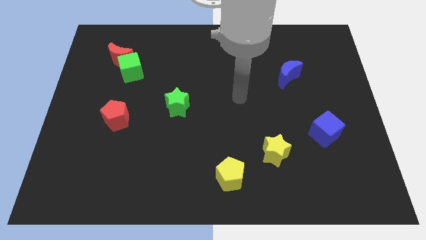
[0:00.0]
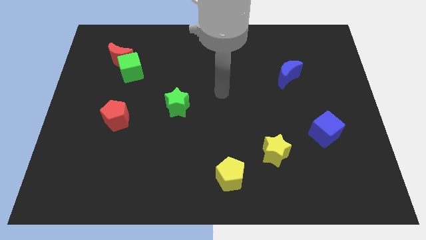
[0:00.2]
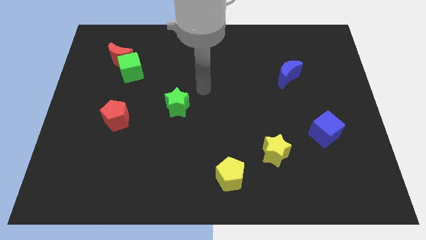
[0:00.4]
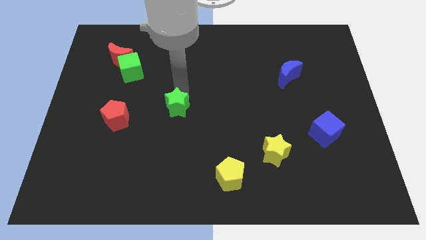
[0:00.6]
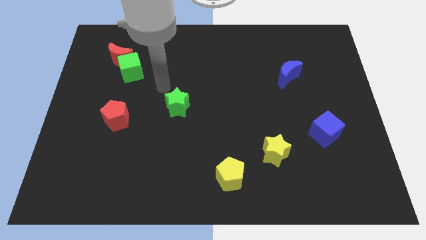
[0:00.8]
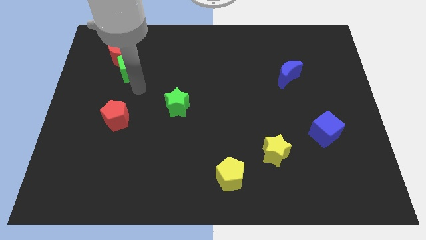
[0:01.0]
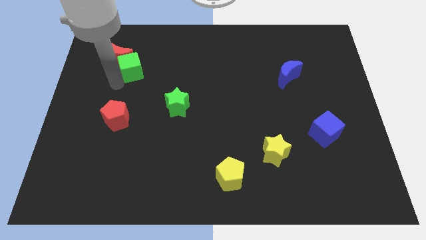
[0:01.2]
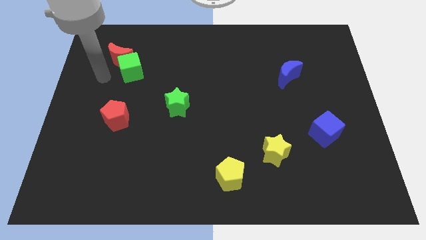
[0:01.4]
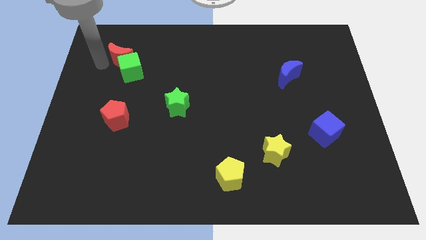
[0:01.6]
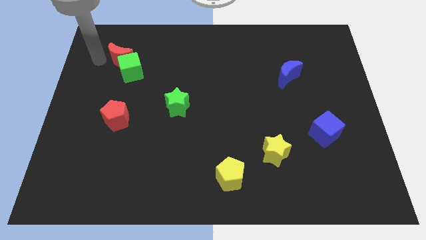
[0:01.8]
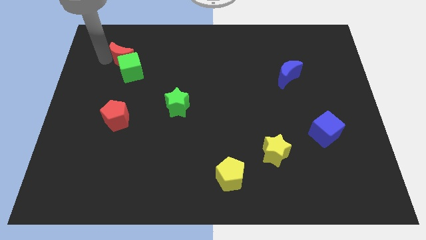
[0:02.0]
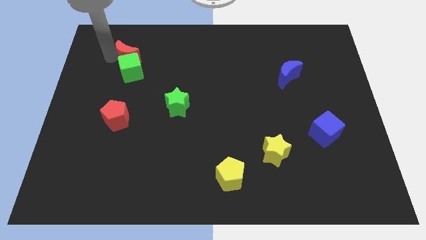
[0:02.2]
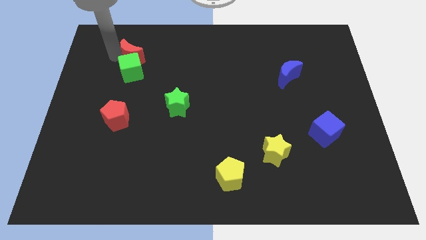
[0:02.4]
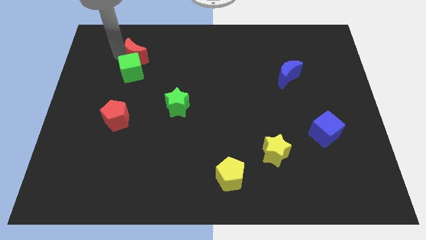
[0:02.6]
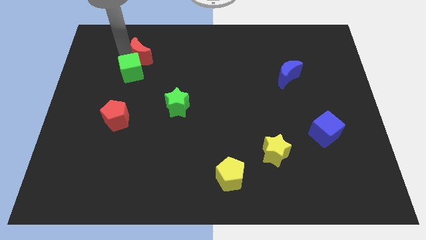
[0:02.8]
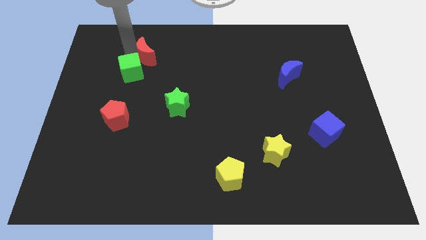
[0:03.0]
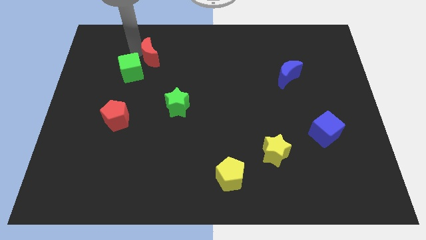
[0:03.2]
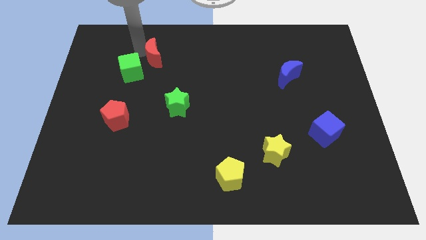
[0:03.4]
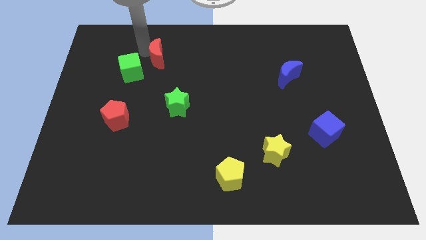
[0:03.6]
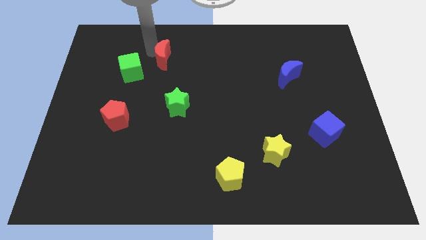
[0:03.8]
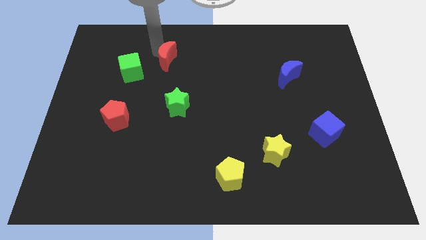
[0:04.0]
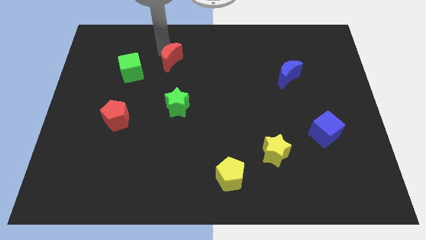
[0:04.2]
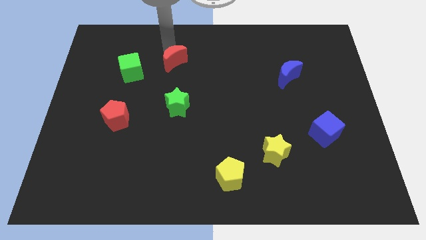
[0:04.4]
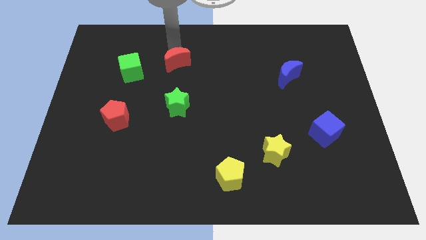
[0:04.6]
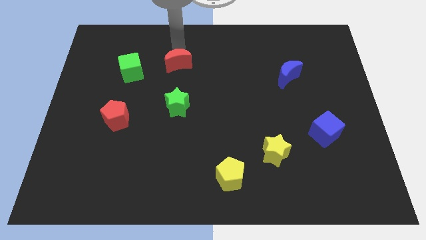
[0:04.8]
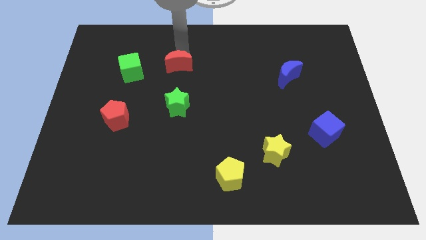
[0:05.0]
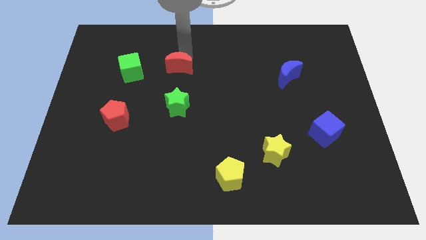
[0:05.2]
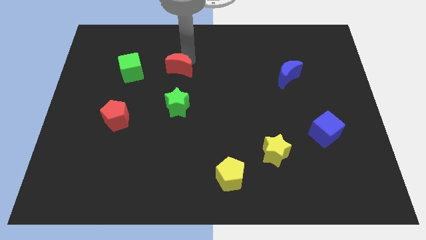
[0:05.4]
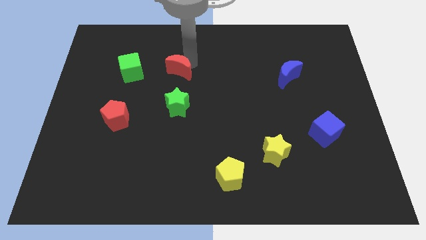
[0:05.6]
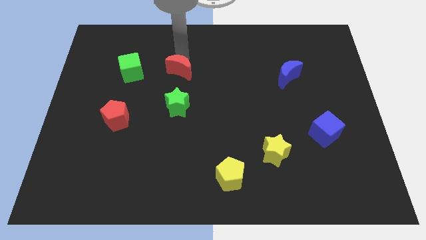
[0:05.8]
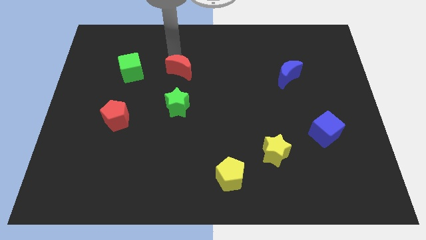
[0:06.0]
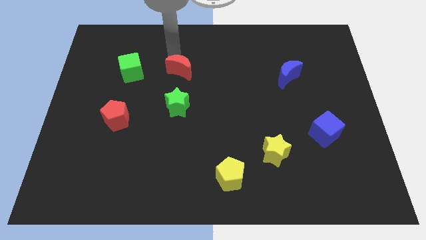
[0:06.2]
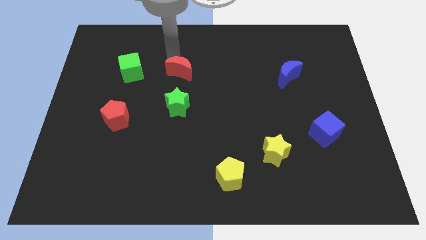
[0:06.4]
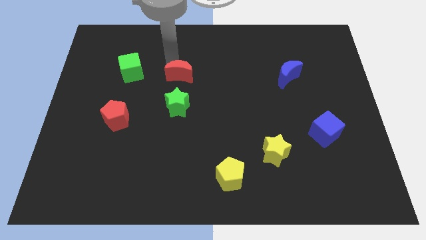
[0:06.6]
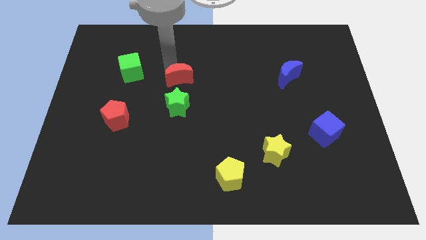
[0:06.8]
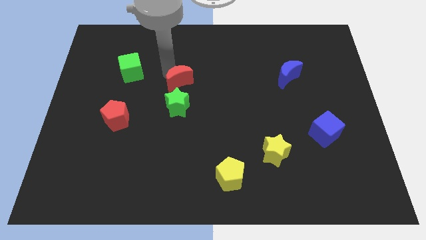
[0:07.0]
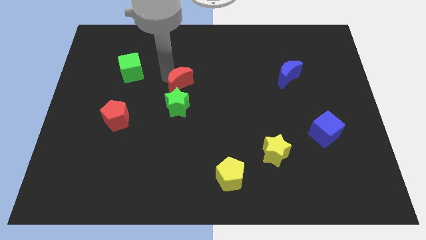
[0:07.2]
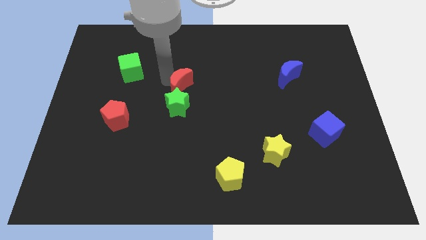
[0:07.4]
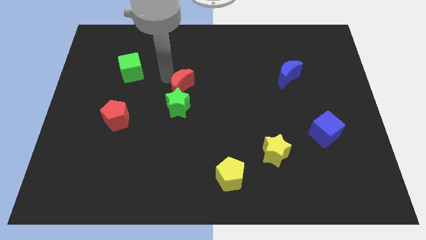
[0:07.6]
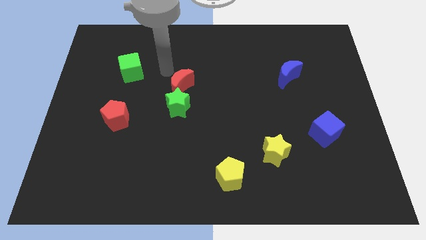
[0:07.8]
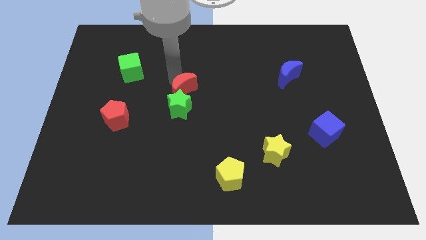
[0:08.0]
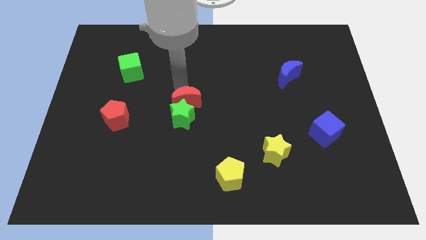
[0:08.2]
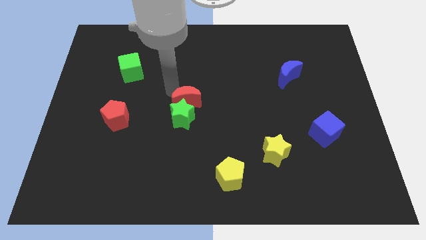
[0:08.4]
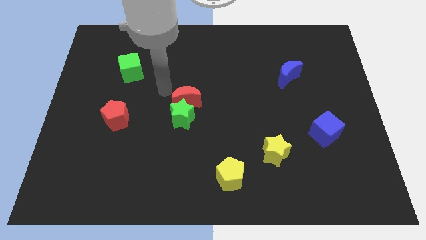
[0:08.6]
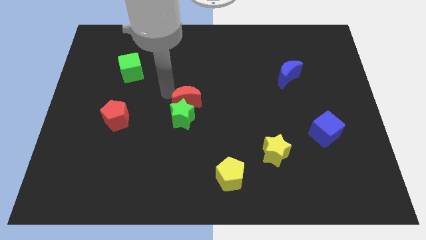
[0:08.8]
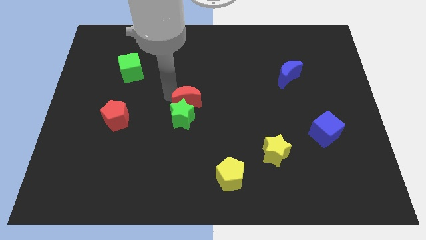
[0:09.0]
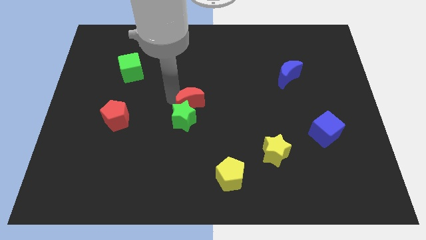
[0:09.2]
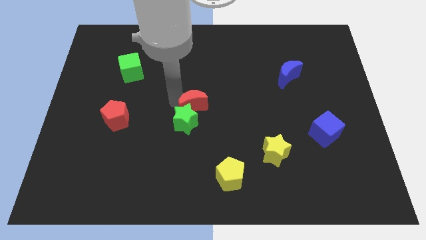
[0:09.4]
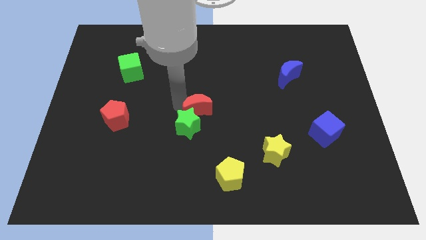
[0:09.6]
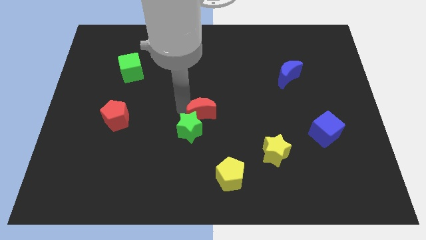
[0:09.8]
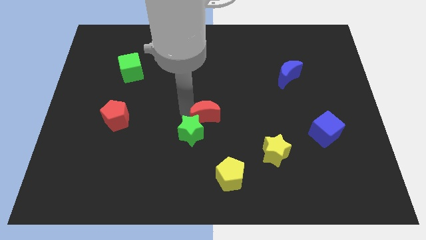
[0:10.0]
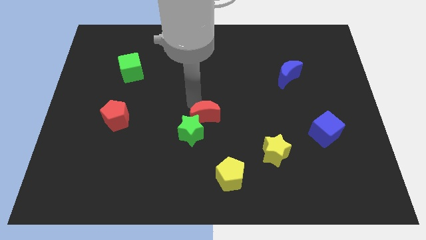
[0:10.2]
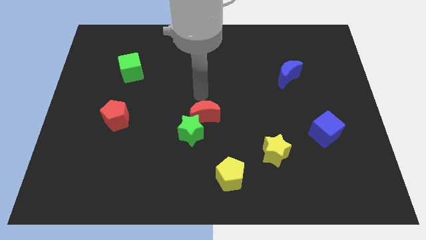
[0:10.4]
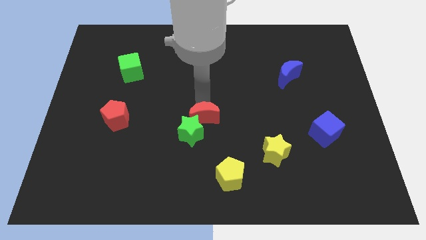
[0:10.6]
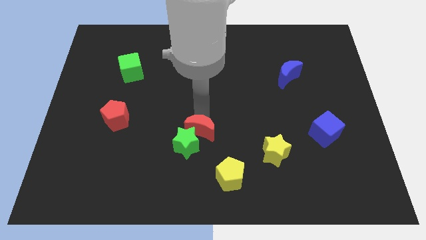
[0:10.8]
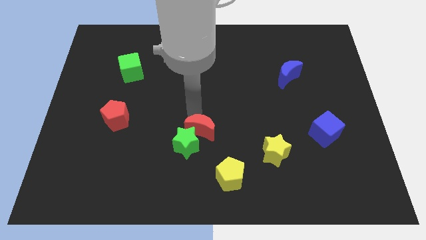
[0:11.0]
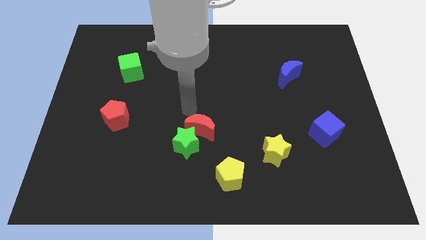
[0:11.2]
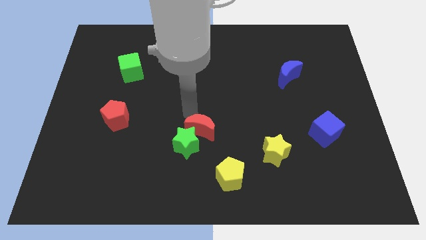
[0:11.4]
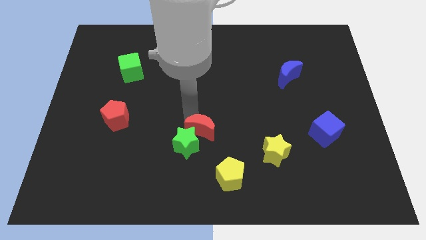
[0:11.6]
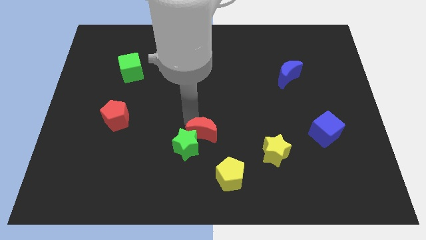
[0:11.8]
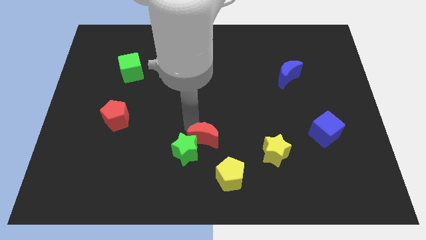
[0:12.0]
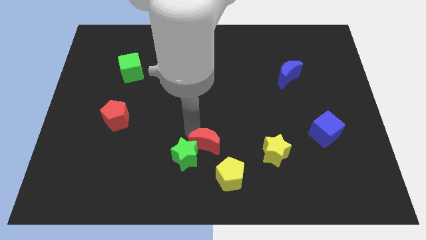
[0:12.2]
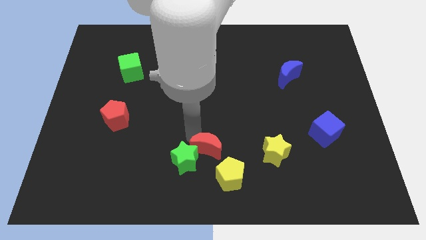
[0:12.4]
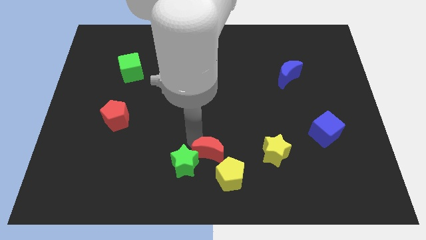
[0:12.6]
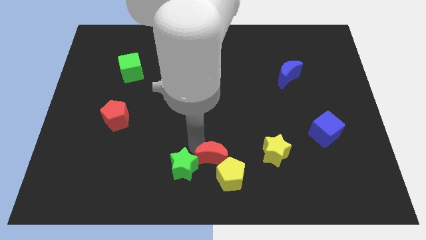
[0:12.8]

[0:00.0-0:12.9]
move the red moon next to the yellow pentagon

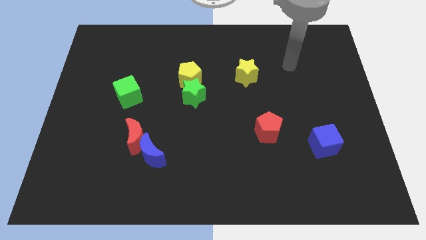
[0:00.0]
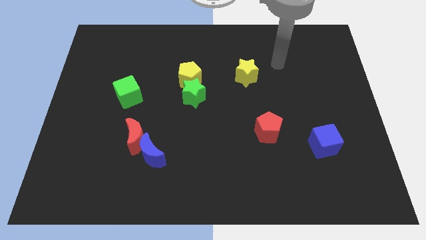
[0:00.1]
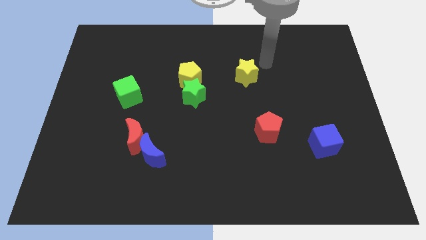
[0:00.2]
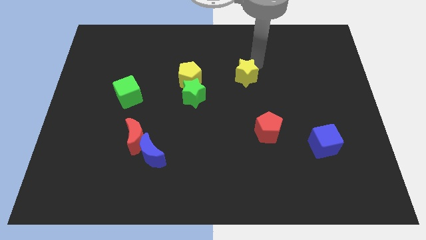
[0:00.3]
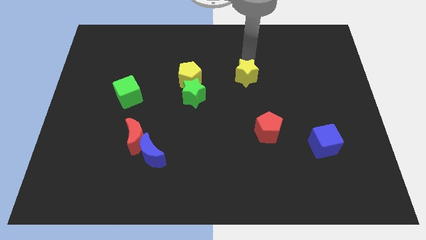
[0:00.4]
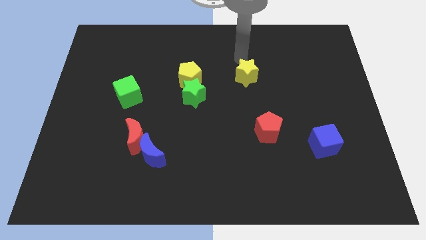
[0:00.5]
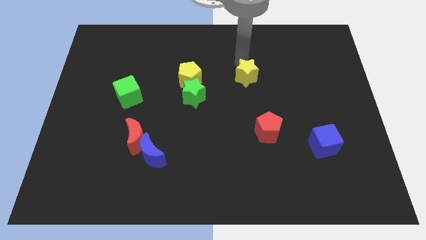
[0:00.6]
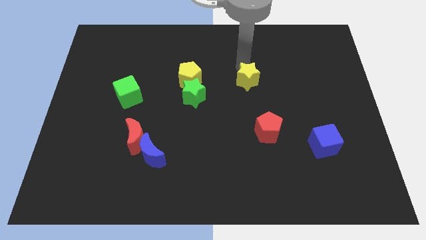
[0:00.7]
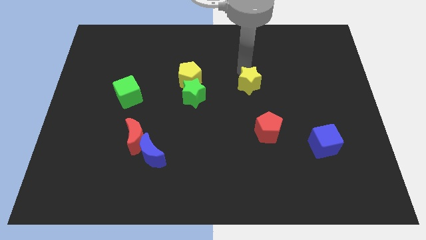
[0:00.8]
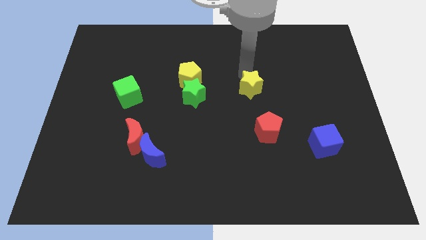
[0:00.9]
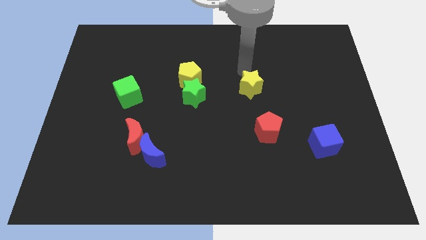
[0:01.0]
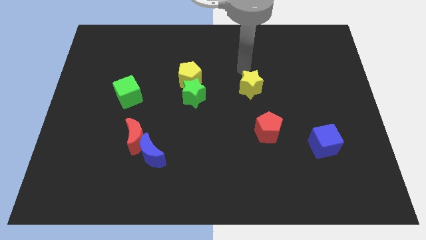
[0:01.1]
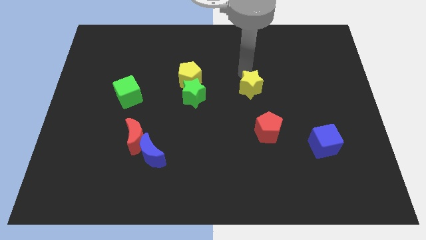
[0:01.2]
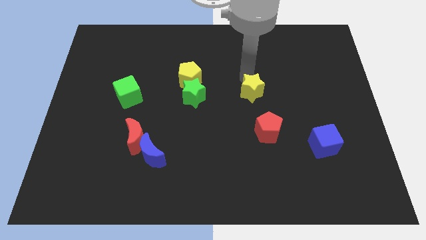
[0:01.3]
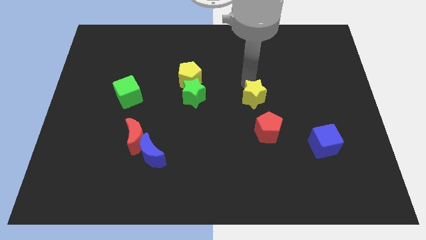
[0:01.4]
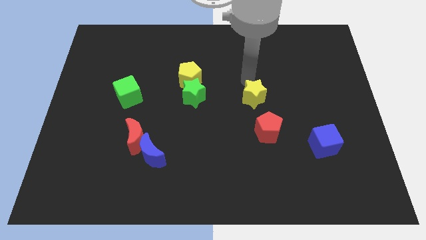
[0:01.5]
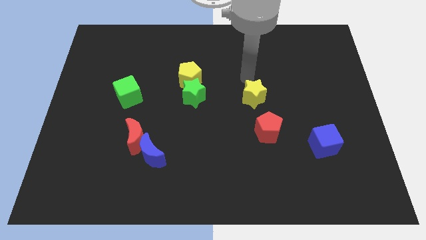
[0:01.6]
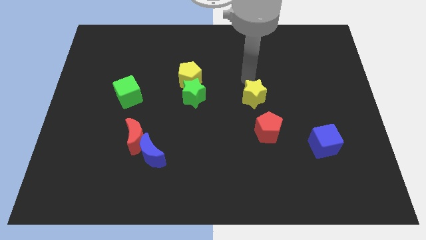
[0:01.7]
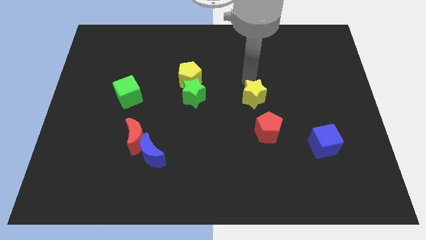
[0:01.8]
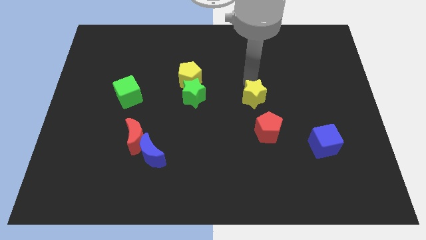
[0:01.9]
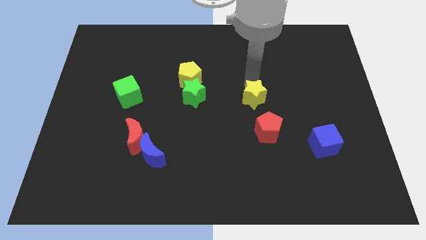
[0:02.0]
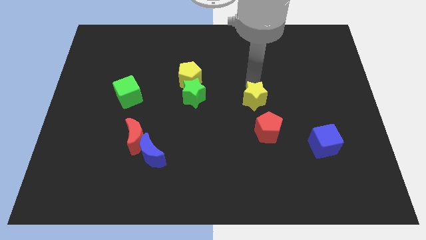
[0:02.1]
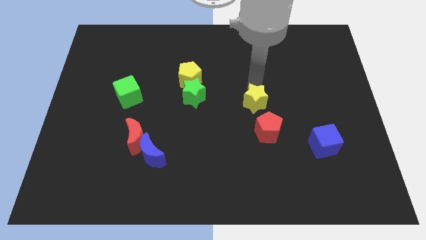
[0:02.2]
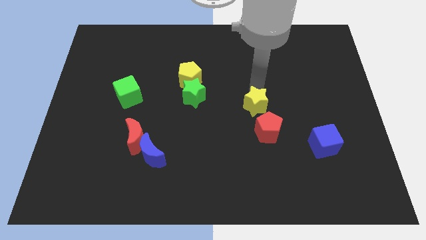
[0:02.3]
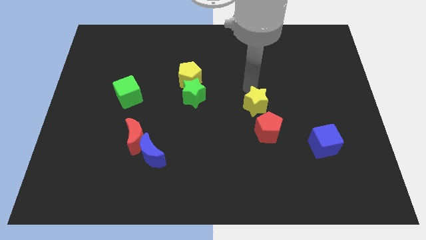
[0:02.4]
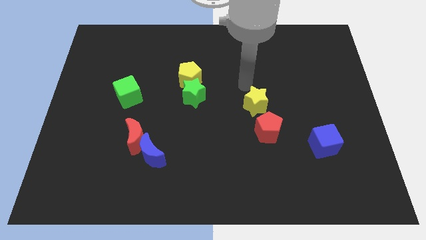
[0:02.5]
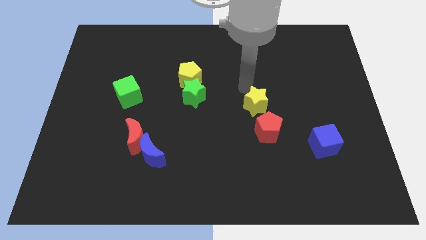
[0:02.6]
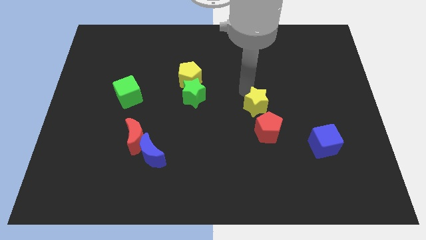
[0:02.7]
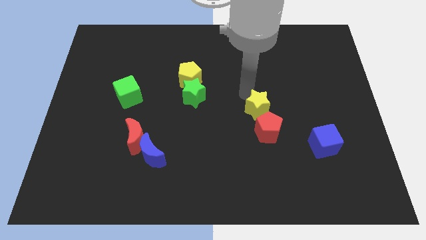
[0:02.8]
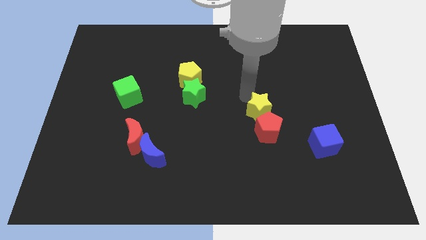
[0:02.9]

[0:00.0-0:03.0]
move the yellow star next to the red pentagon
